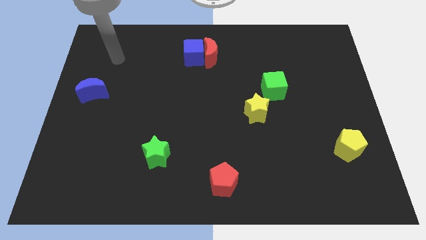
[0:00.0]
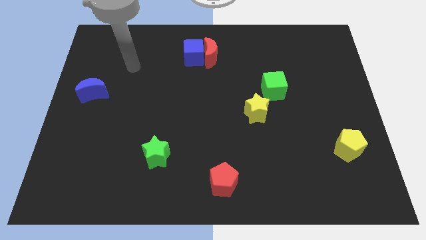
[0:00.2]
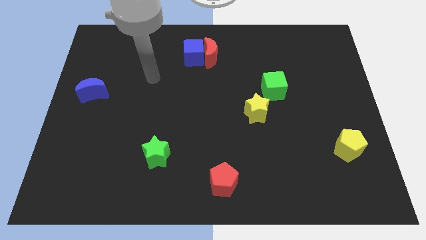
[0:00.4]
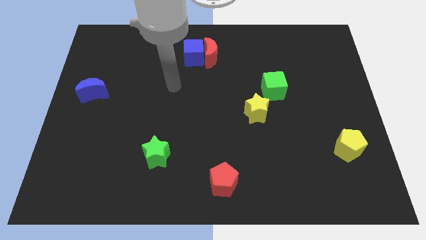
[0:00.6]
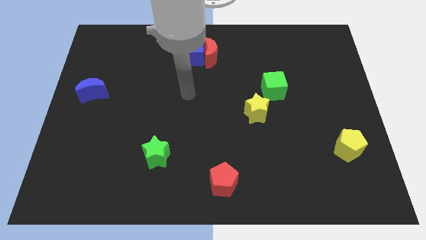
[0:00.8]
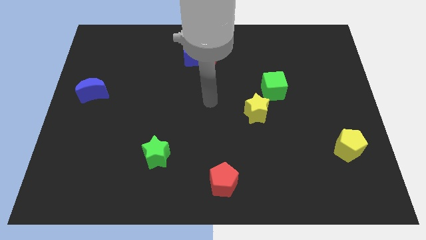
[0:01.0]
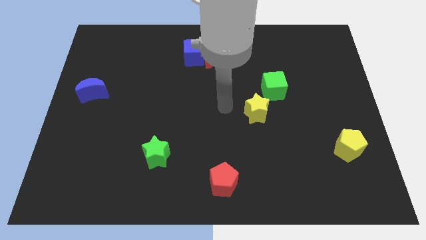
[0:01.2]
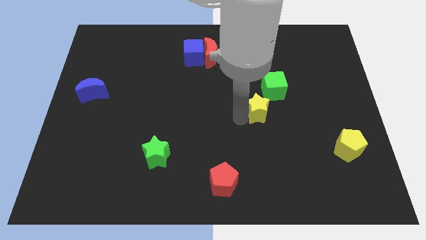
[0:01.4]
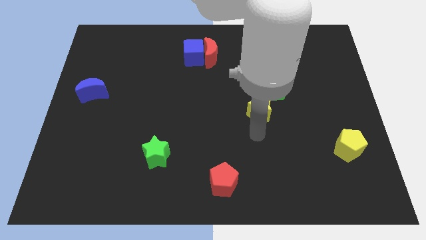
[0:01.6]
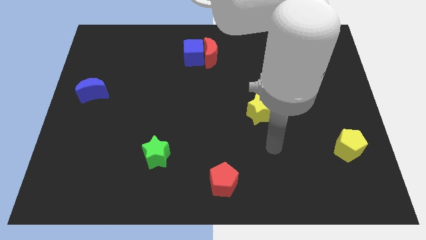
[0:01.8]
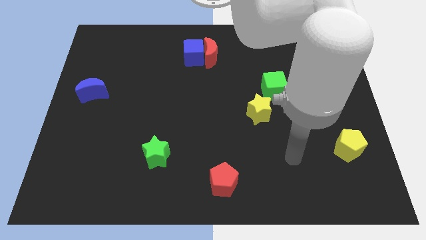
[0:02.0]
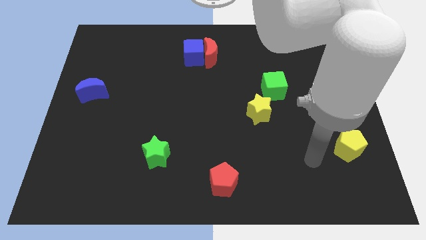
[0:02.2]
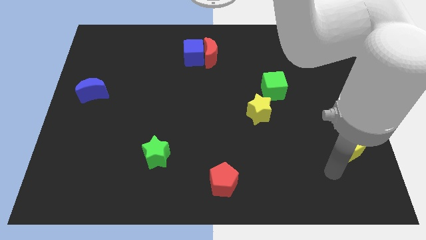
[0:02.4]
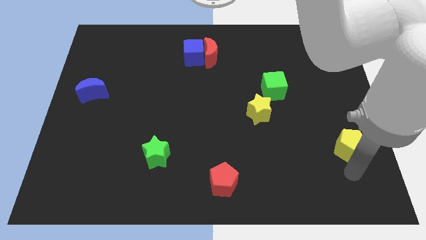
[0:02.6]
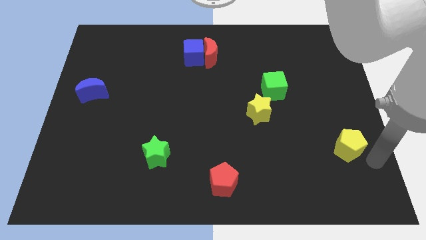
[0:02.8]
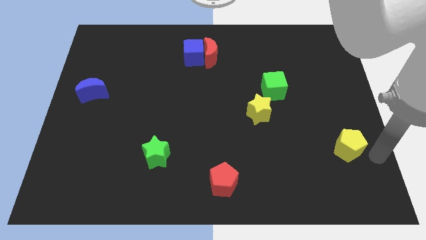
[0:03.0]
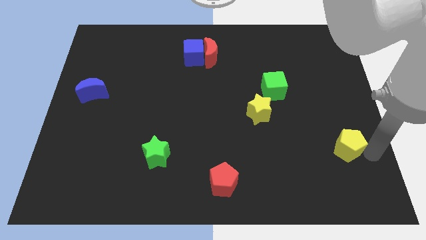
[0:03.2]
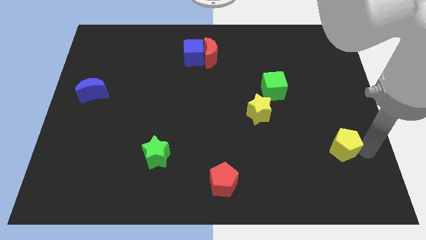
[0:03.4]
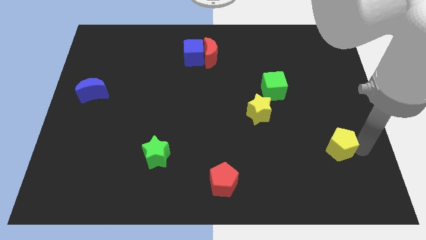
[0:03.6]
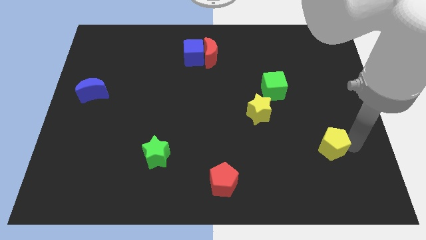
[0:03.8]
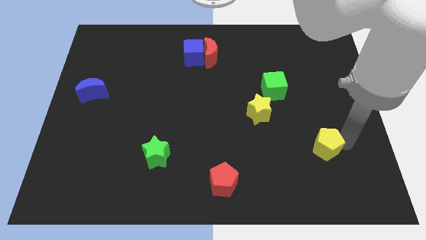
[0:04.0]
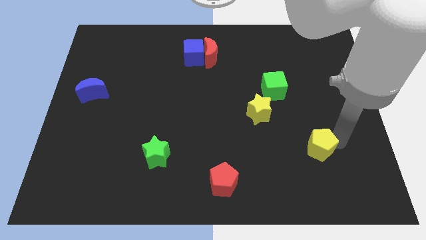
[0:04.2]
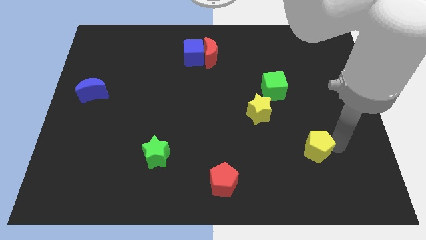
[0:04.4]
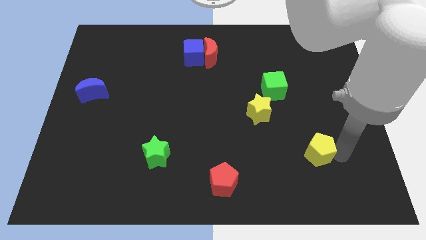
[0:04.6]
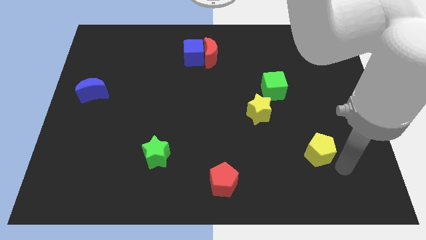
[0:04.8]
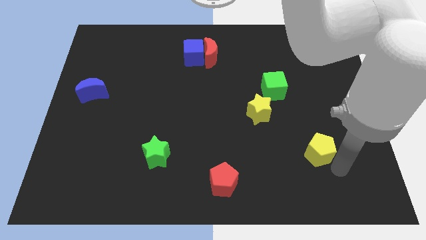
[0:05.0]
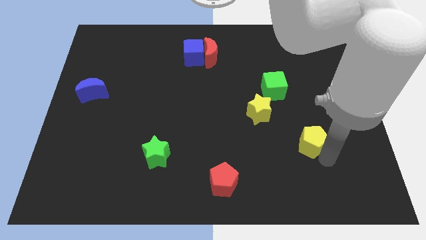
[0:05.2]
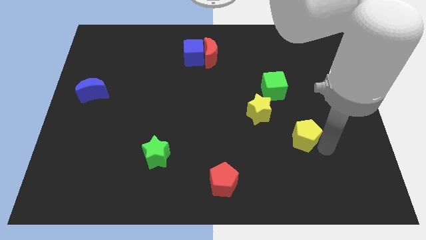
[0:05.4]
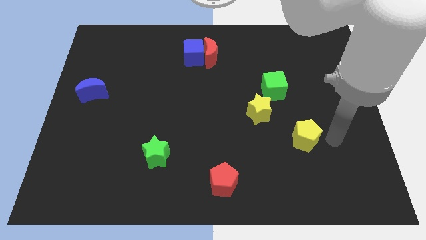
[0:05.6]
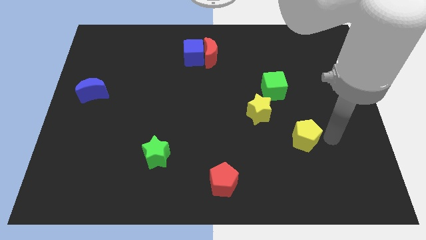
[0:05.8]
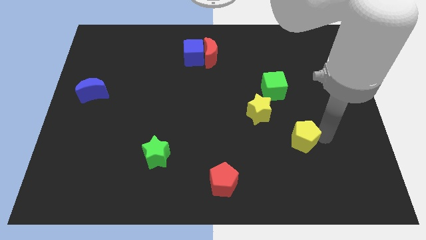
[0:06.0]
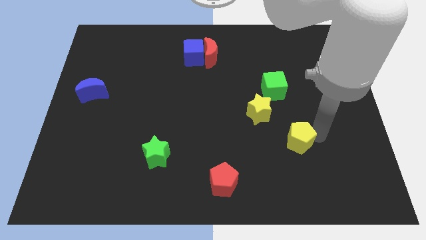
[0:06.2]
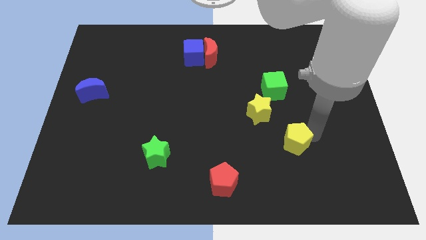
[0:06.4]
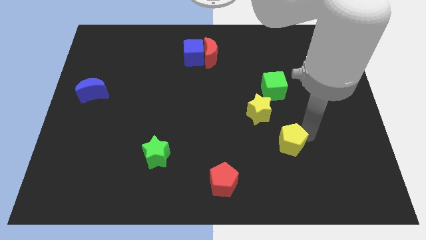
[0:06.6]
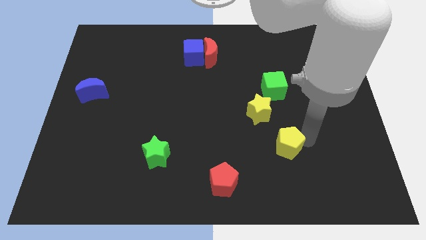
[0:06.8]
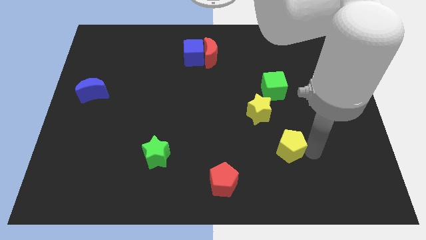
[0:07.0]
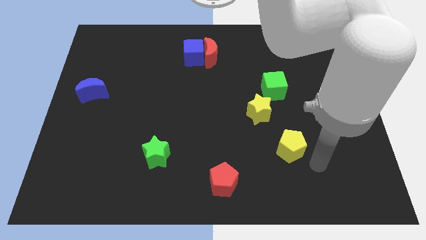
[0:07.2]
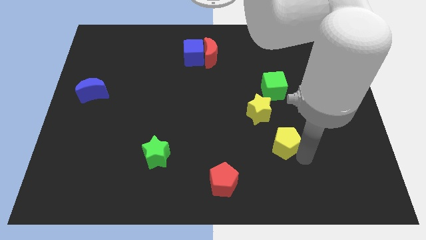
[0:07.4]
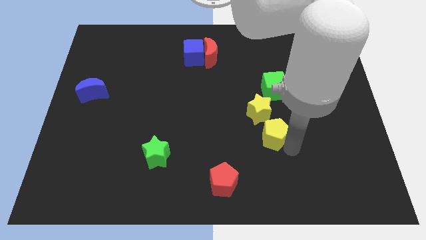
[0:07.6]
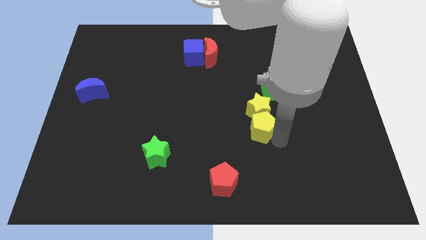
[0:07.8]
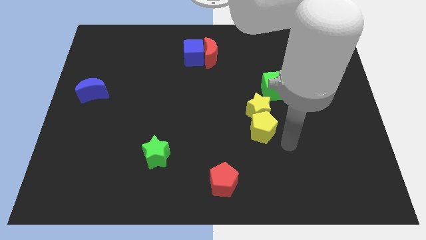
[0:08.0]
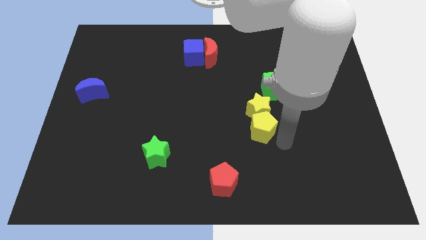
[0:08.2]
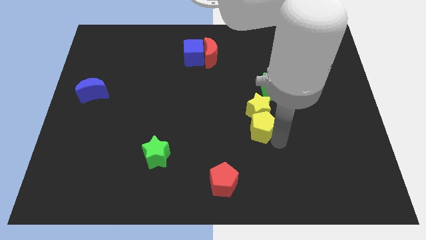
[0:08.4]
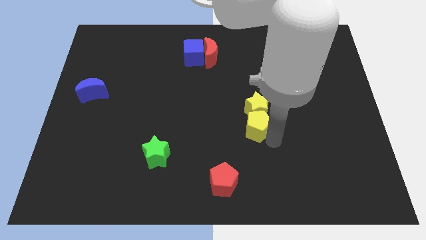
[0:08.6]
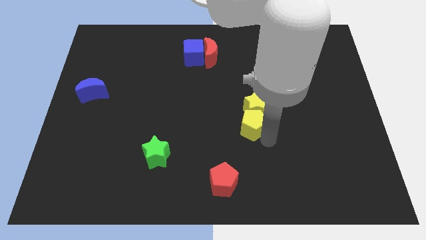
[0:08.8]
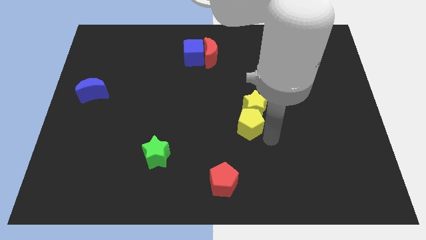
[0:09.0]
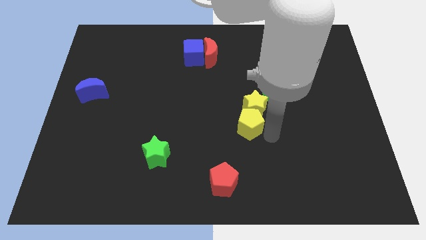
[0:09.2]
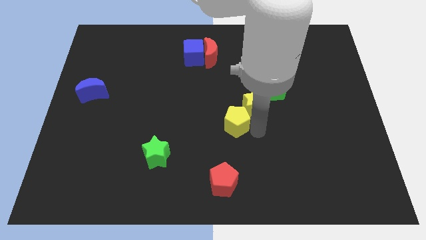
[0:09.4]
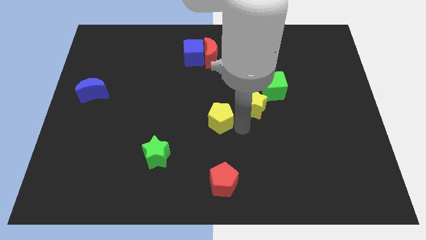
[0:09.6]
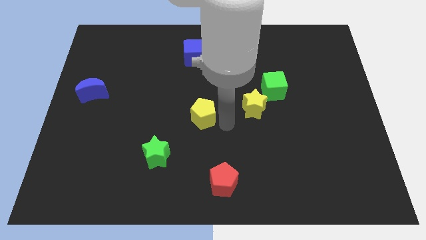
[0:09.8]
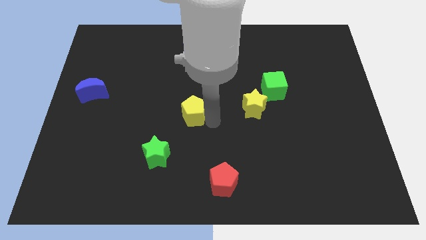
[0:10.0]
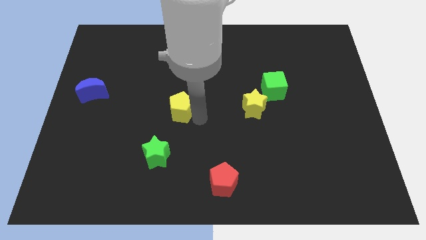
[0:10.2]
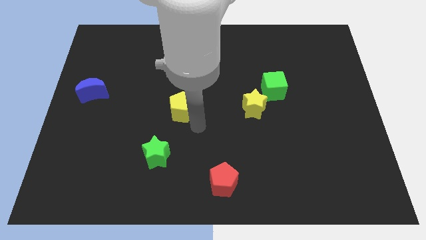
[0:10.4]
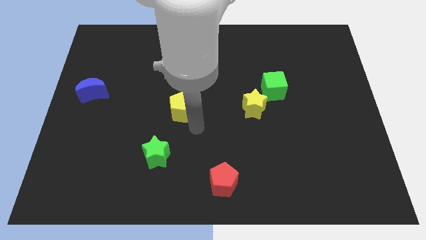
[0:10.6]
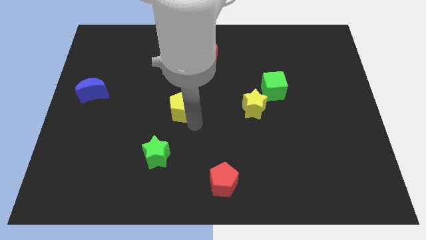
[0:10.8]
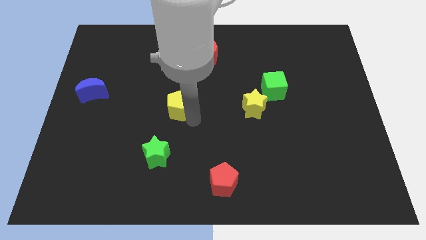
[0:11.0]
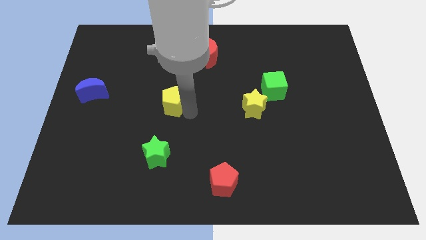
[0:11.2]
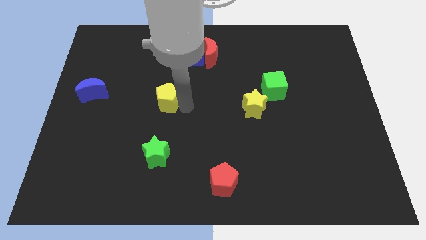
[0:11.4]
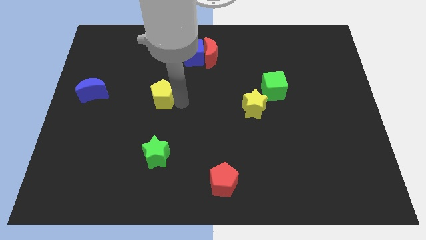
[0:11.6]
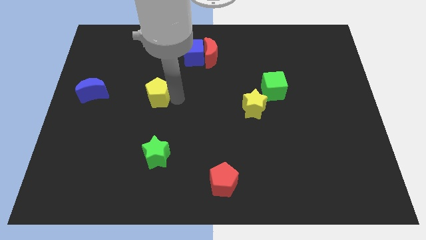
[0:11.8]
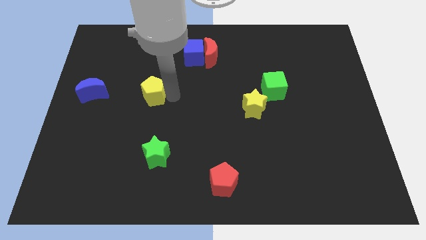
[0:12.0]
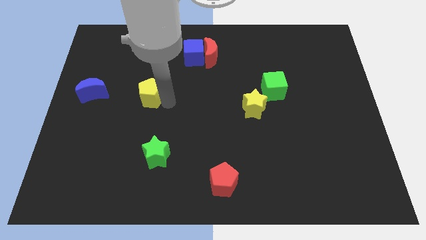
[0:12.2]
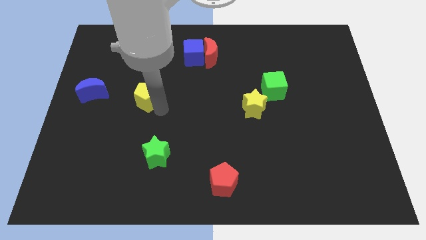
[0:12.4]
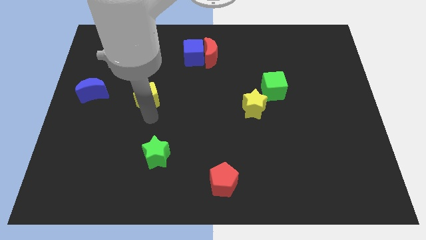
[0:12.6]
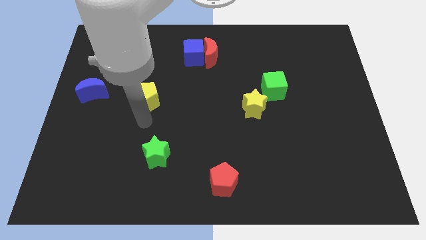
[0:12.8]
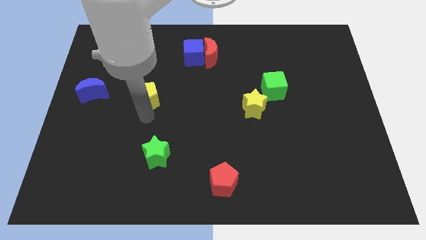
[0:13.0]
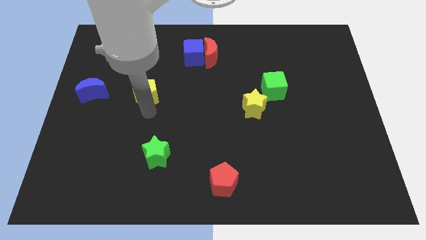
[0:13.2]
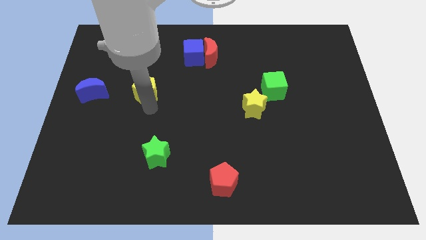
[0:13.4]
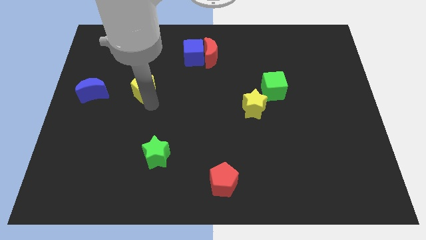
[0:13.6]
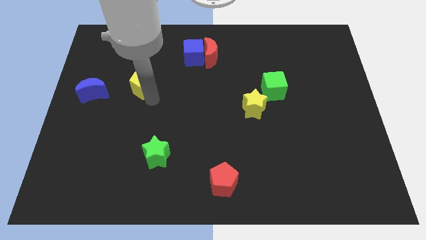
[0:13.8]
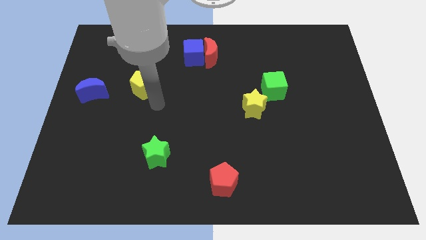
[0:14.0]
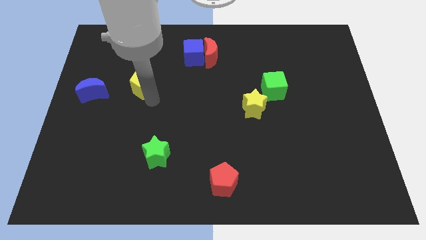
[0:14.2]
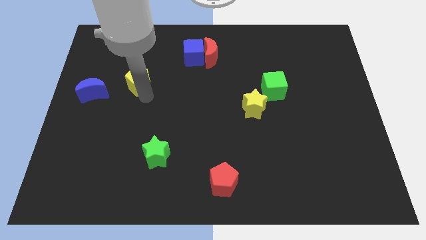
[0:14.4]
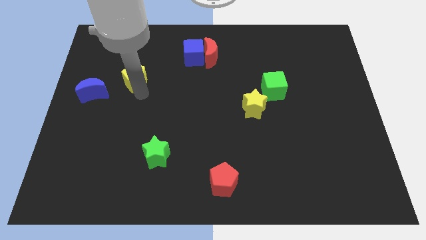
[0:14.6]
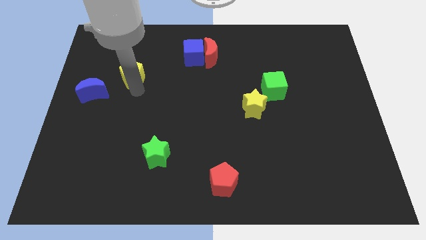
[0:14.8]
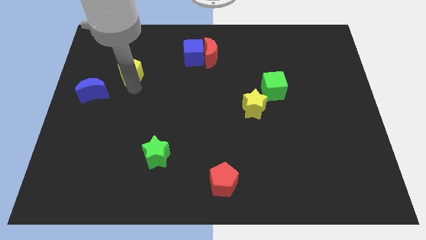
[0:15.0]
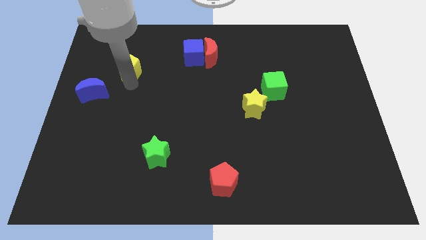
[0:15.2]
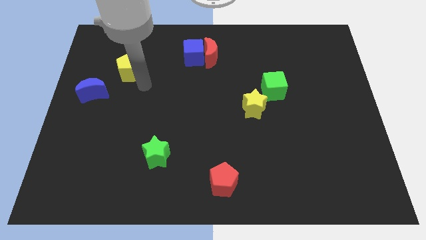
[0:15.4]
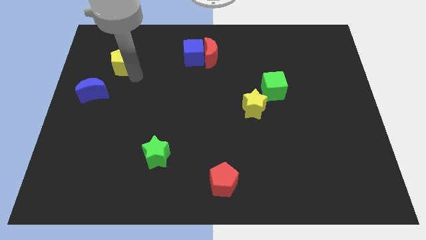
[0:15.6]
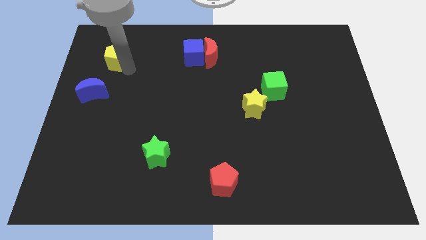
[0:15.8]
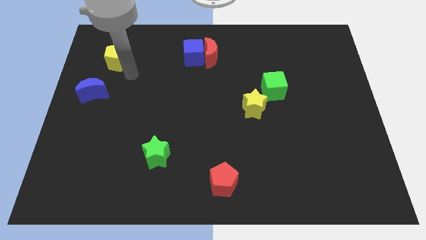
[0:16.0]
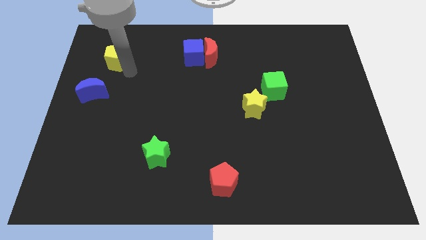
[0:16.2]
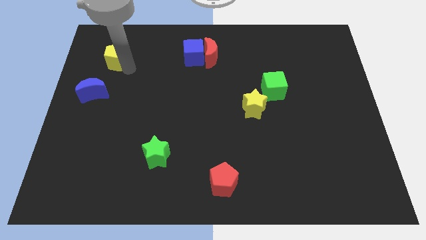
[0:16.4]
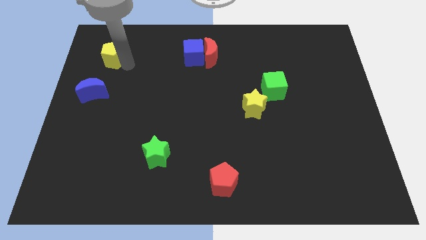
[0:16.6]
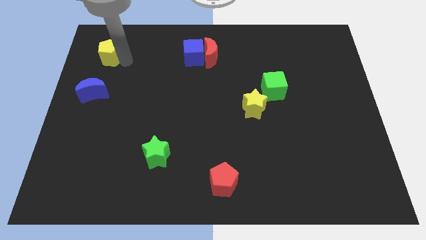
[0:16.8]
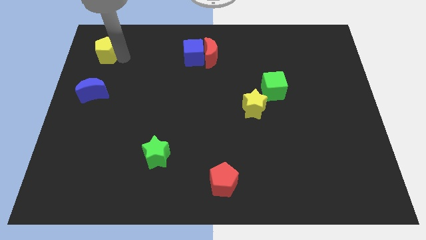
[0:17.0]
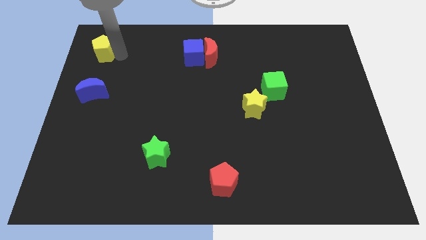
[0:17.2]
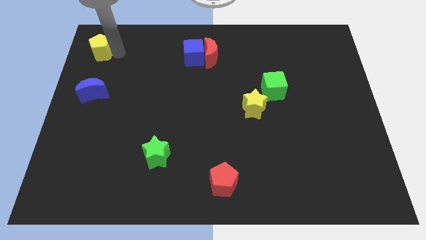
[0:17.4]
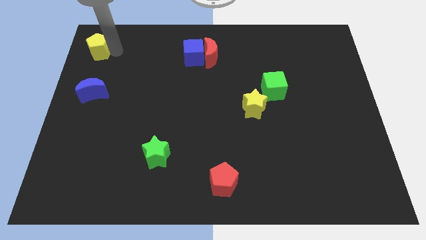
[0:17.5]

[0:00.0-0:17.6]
slide the yellow pentagon to the top left of the board
